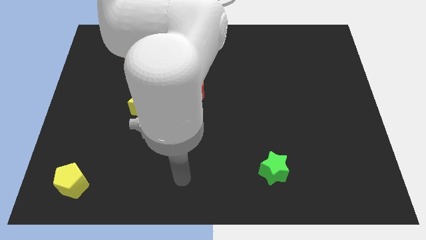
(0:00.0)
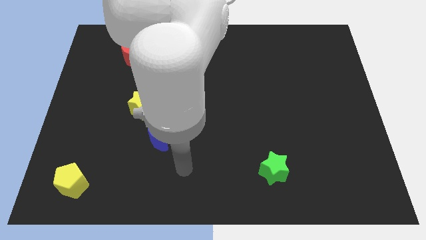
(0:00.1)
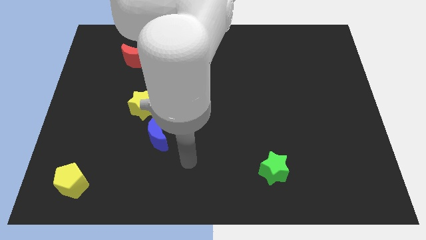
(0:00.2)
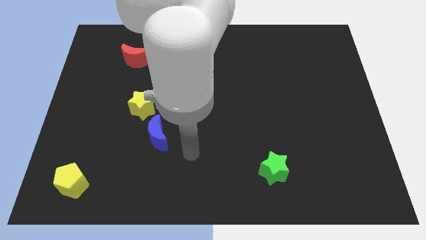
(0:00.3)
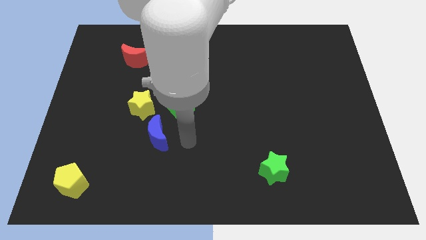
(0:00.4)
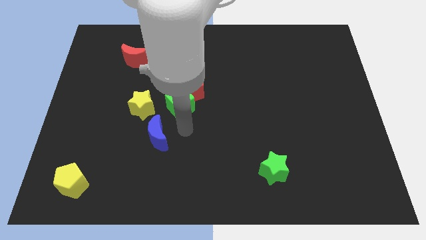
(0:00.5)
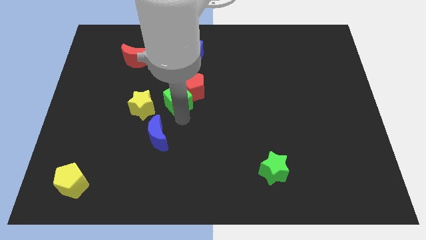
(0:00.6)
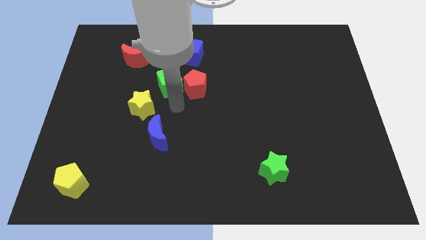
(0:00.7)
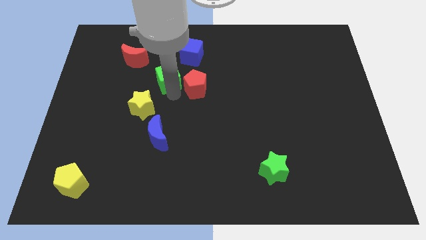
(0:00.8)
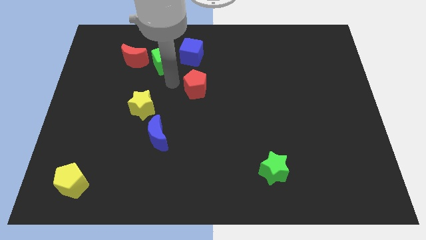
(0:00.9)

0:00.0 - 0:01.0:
move the red pentagon away from the green cube

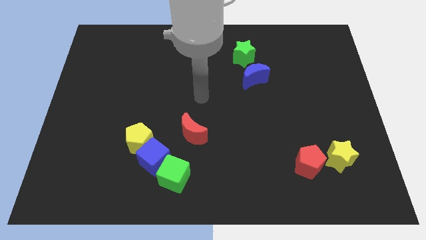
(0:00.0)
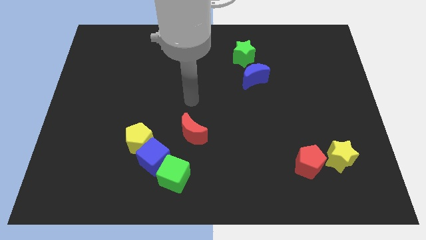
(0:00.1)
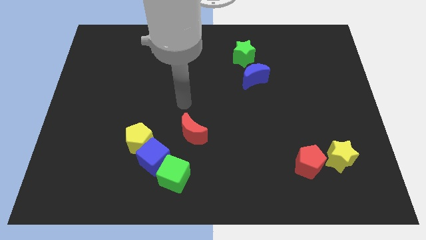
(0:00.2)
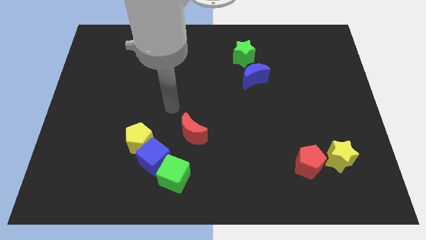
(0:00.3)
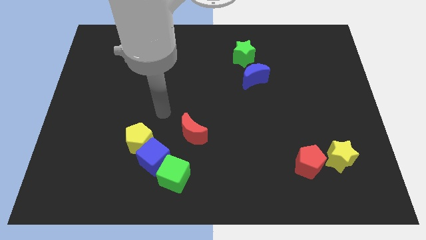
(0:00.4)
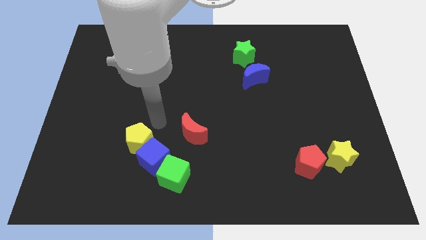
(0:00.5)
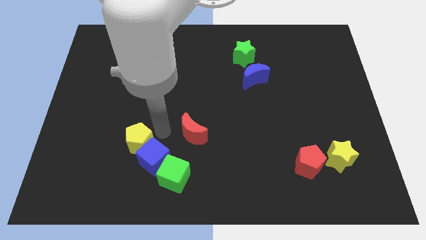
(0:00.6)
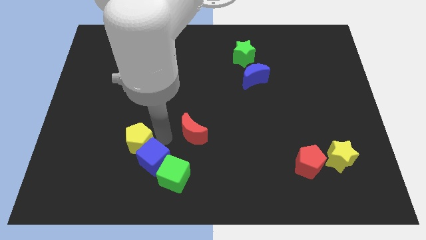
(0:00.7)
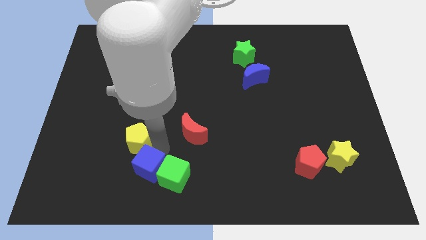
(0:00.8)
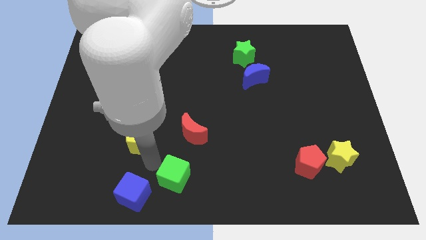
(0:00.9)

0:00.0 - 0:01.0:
pull the yellow pentagon apart from the blue cube

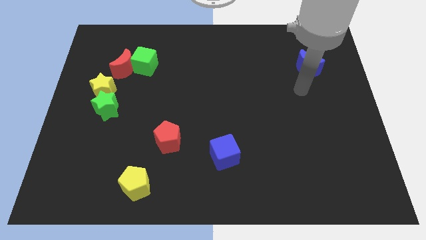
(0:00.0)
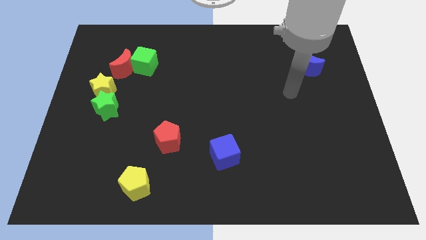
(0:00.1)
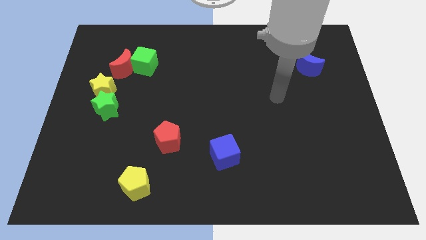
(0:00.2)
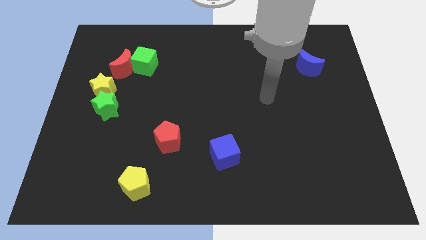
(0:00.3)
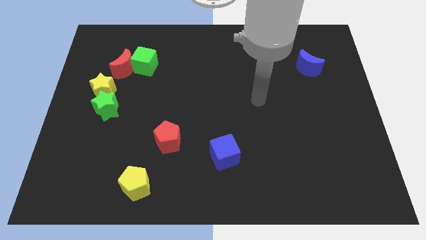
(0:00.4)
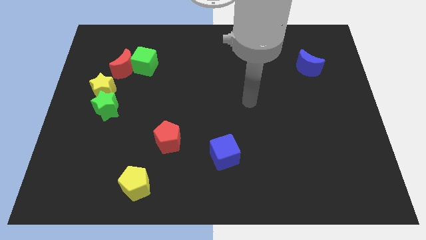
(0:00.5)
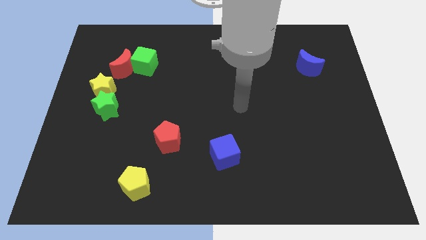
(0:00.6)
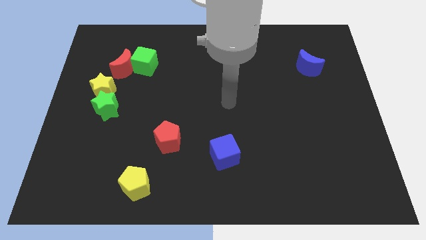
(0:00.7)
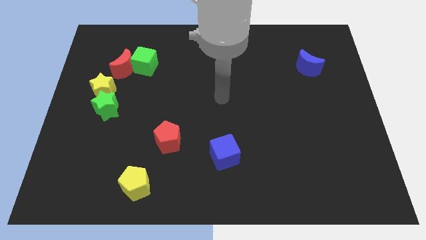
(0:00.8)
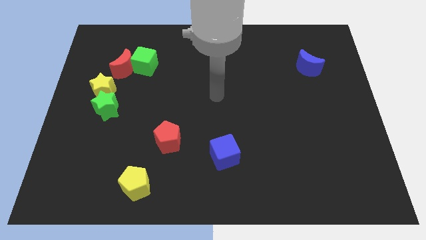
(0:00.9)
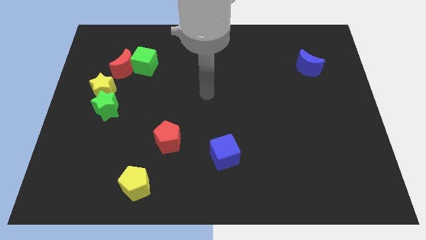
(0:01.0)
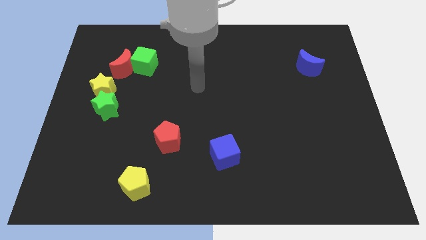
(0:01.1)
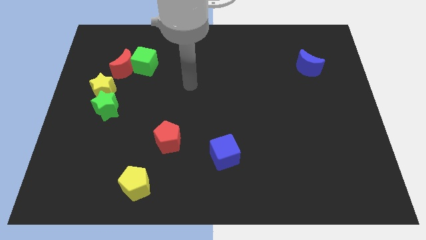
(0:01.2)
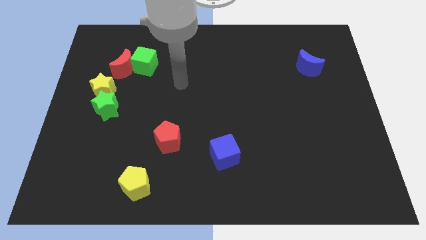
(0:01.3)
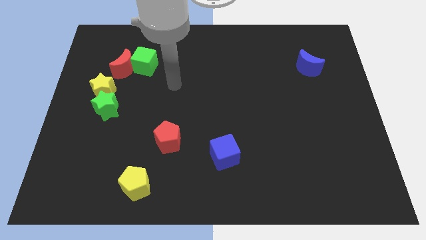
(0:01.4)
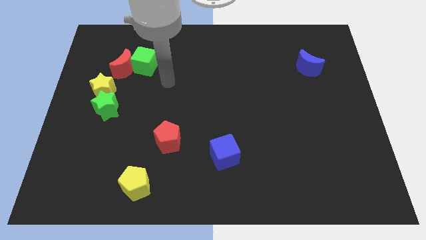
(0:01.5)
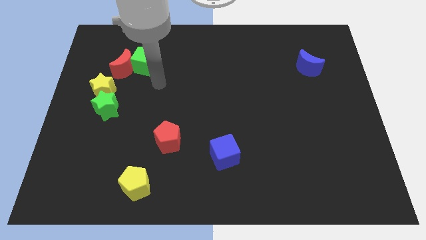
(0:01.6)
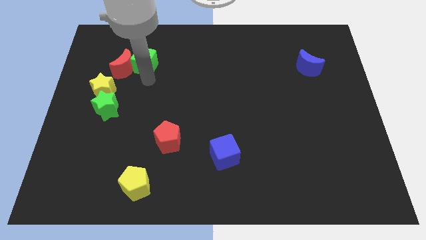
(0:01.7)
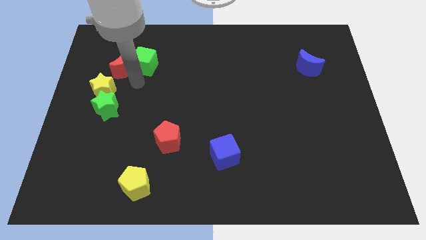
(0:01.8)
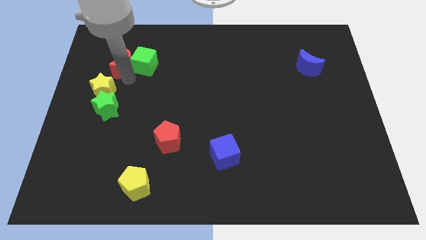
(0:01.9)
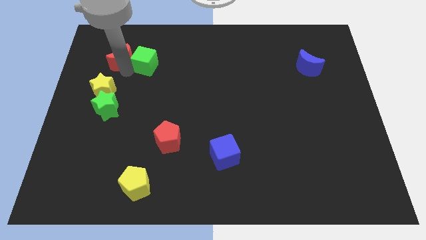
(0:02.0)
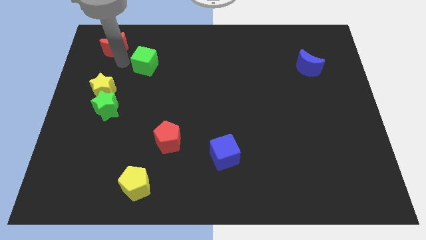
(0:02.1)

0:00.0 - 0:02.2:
move the green cube away from the red moon

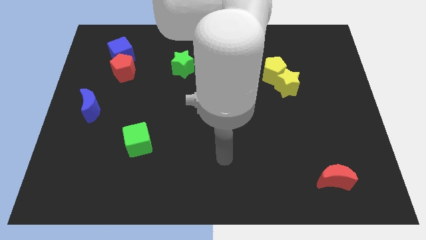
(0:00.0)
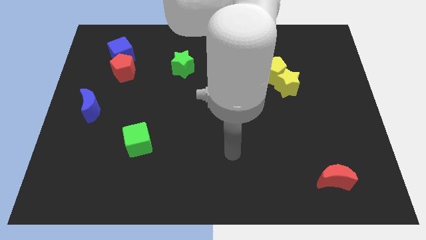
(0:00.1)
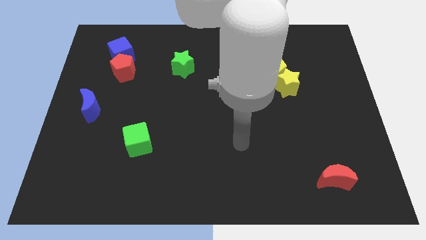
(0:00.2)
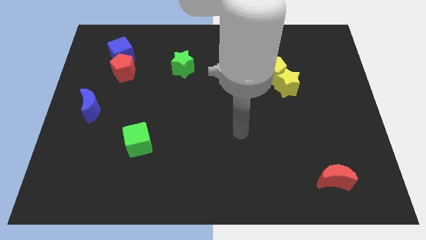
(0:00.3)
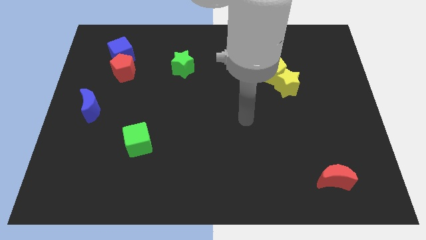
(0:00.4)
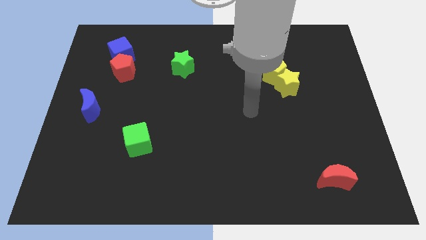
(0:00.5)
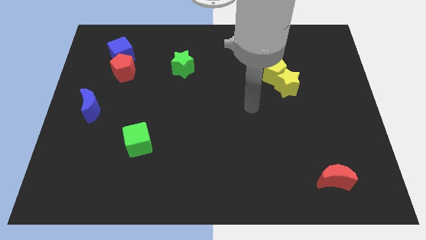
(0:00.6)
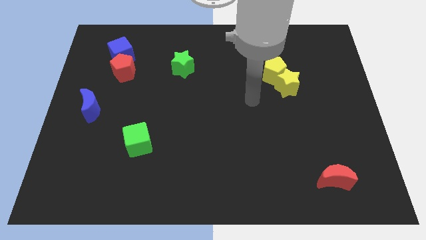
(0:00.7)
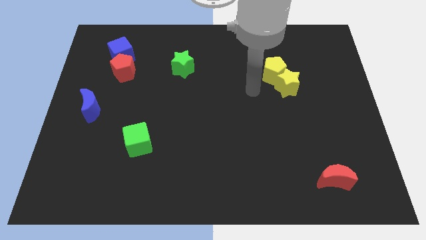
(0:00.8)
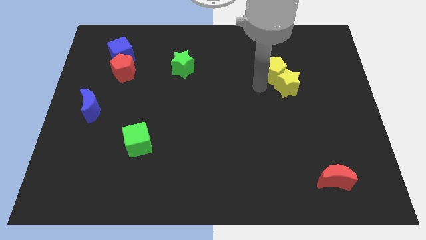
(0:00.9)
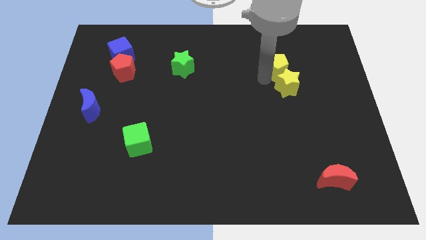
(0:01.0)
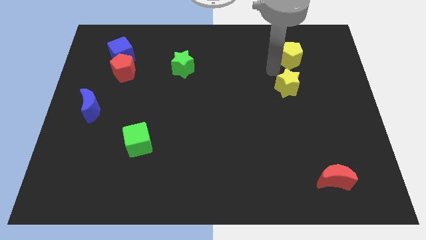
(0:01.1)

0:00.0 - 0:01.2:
pull the yellow star apart from the yellow pentagon

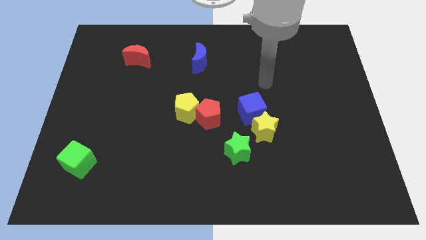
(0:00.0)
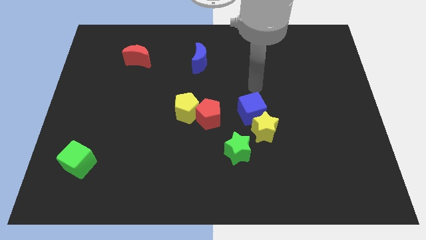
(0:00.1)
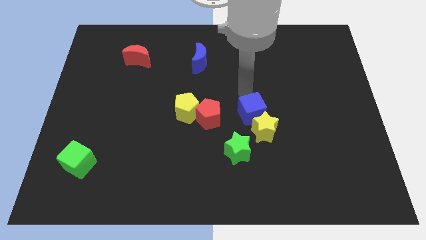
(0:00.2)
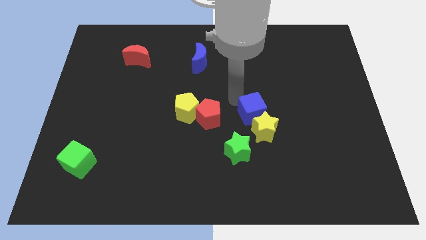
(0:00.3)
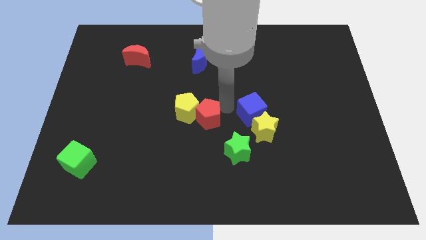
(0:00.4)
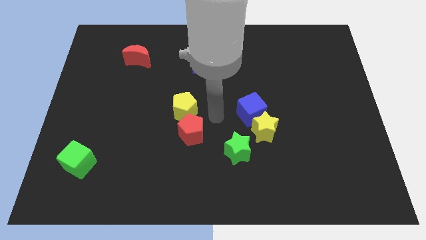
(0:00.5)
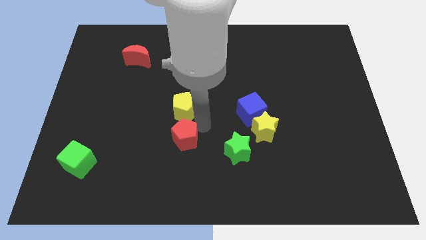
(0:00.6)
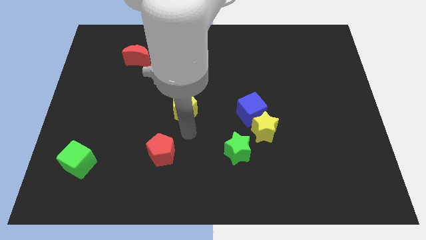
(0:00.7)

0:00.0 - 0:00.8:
move the yellow pentagon away from the red pentagon

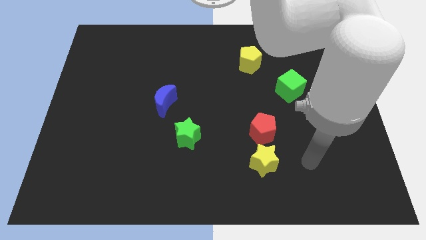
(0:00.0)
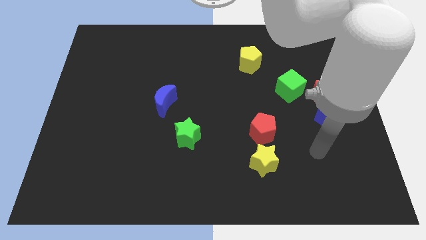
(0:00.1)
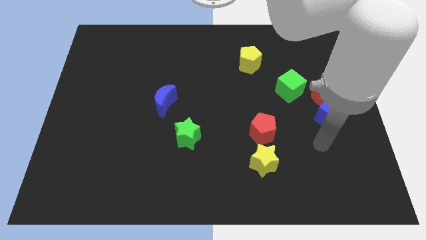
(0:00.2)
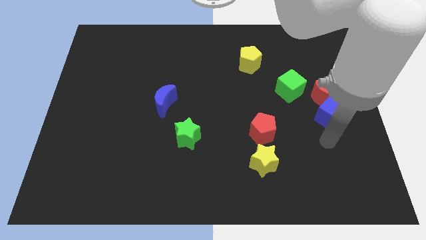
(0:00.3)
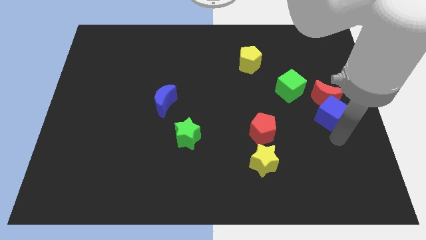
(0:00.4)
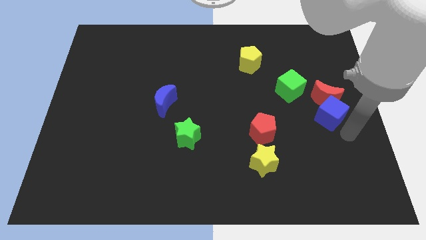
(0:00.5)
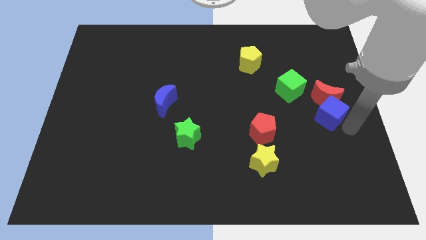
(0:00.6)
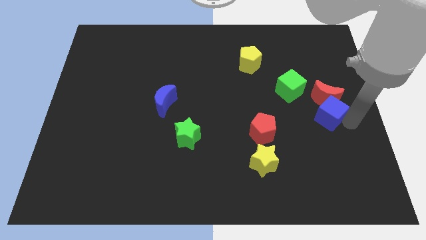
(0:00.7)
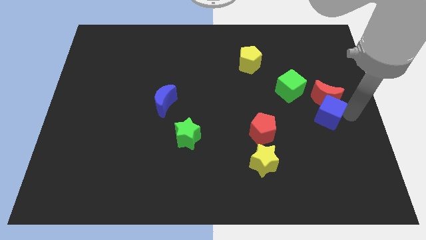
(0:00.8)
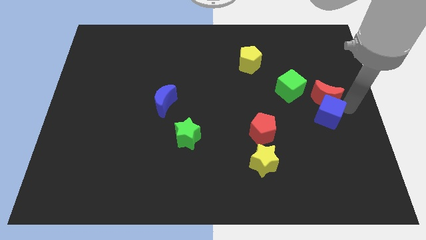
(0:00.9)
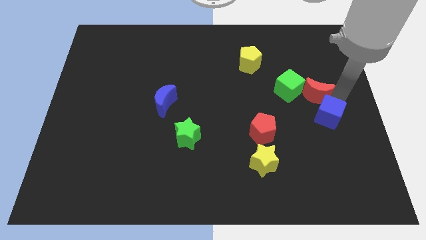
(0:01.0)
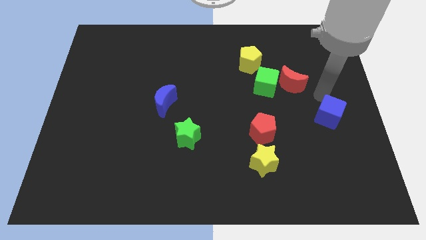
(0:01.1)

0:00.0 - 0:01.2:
move the blue cube away from the red moon

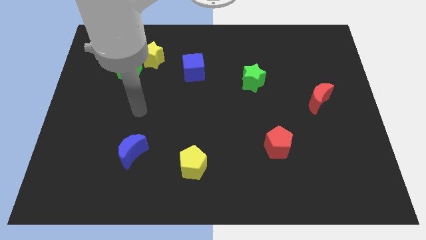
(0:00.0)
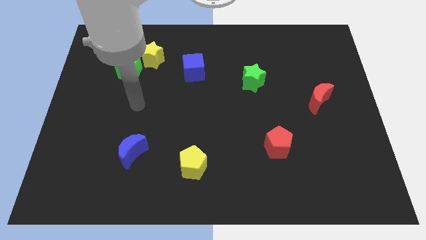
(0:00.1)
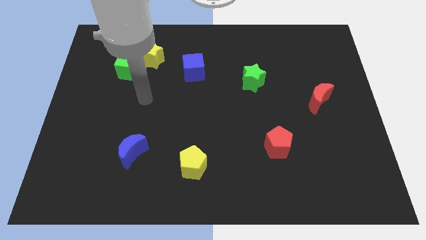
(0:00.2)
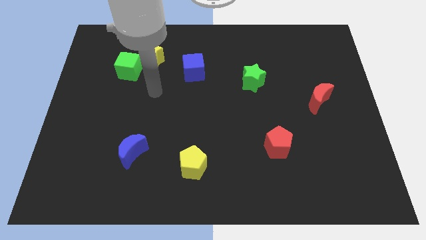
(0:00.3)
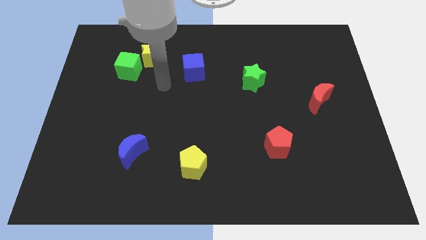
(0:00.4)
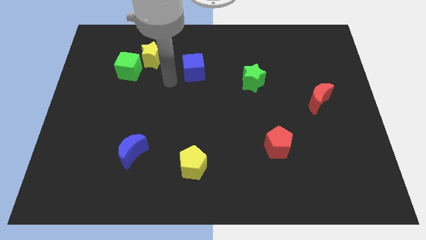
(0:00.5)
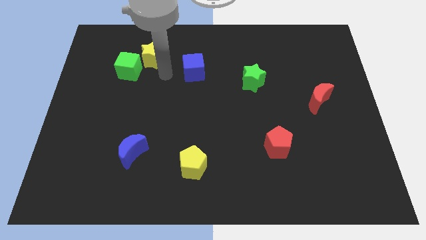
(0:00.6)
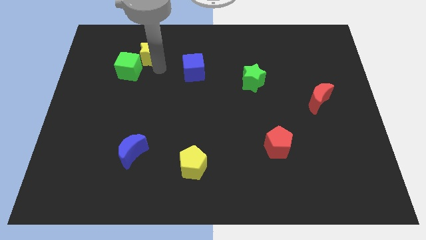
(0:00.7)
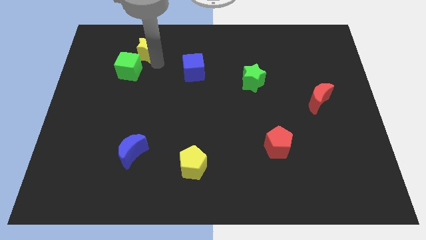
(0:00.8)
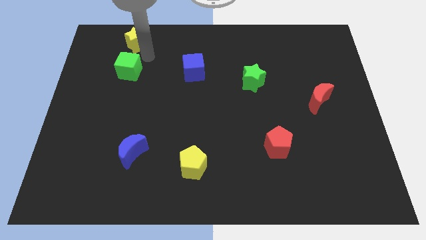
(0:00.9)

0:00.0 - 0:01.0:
separate the green cube from the yellow star

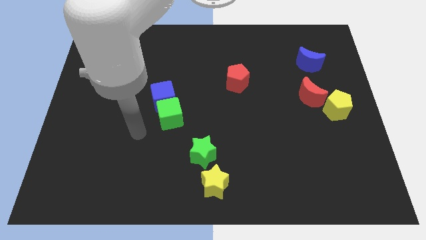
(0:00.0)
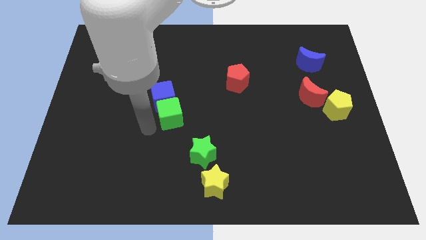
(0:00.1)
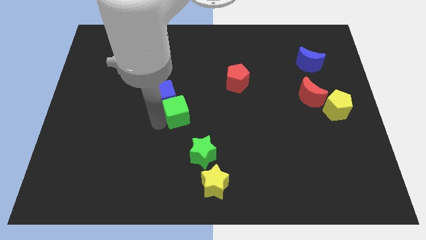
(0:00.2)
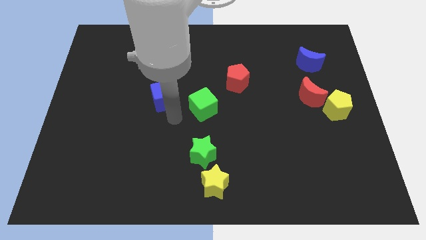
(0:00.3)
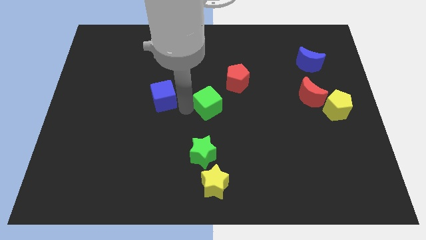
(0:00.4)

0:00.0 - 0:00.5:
pull the blue cube apart from the green cube

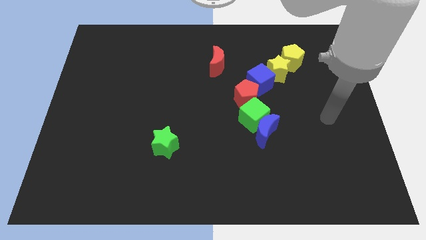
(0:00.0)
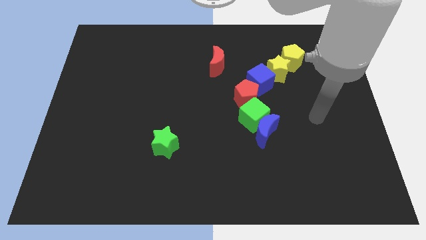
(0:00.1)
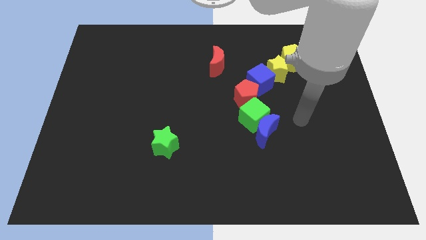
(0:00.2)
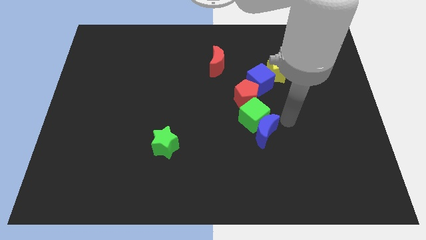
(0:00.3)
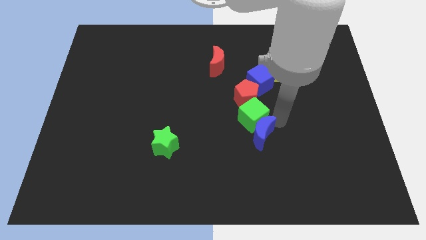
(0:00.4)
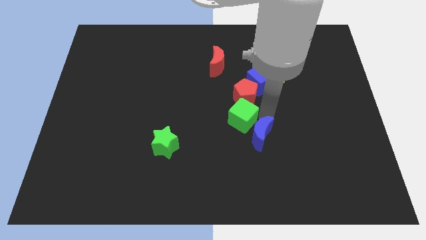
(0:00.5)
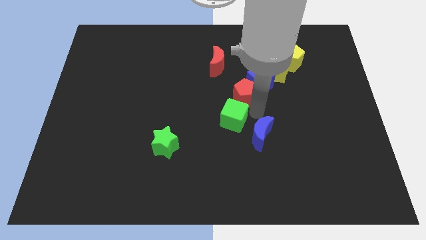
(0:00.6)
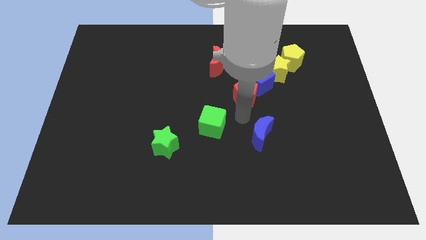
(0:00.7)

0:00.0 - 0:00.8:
move the blue moon away from the green cube
